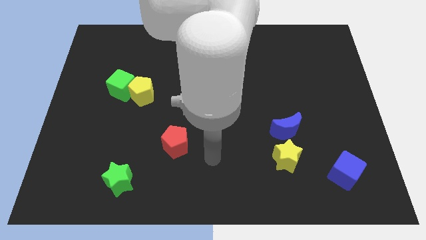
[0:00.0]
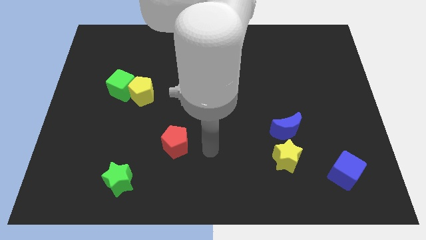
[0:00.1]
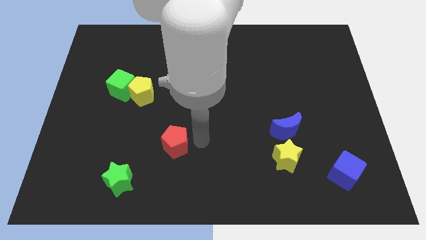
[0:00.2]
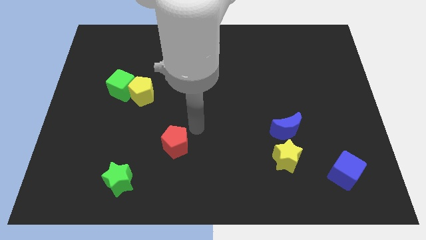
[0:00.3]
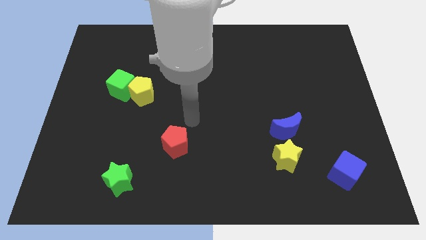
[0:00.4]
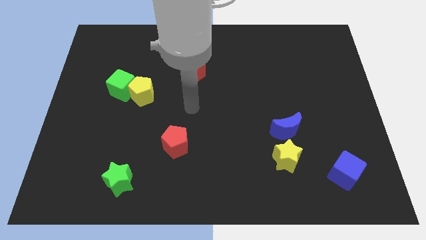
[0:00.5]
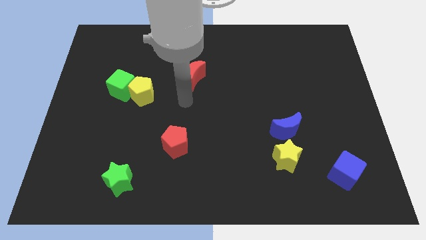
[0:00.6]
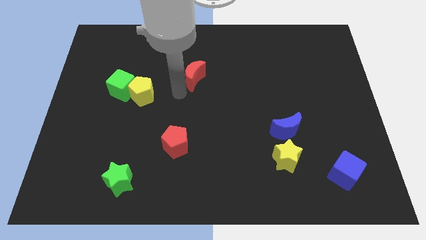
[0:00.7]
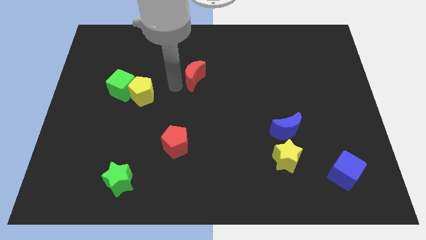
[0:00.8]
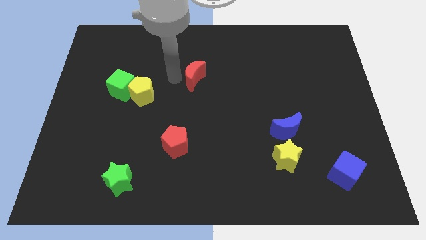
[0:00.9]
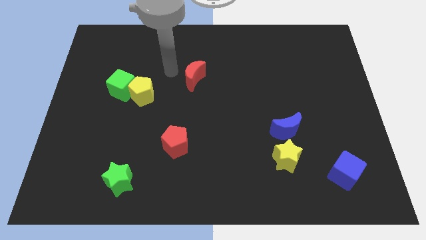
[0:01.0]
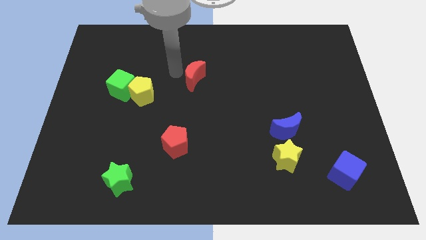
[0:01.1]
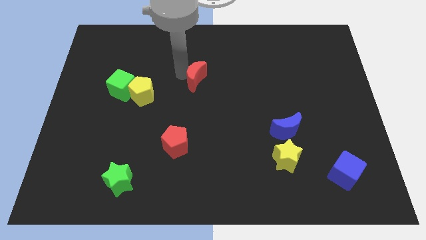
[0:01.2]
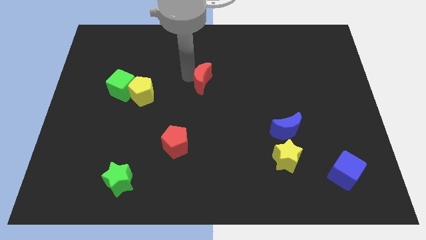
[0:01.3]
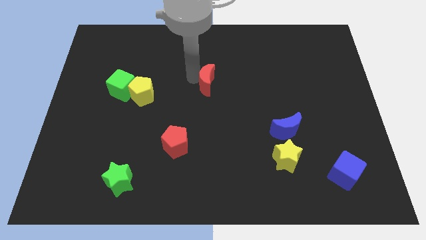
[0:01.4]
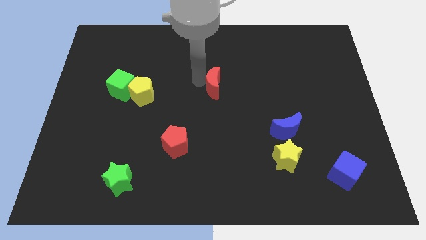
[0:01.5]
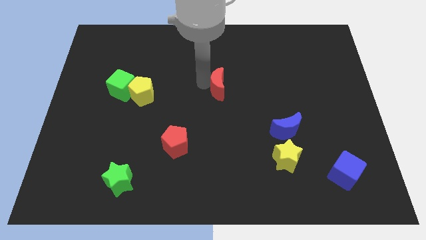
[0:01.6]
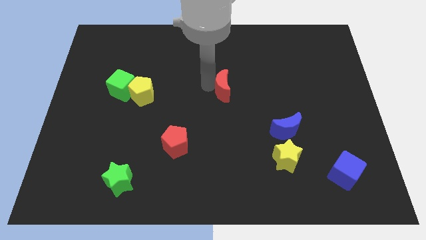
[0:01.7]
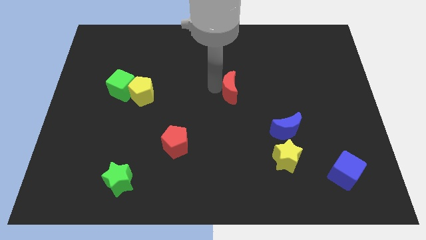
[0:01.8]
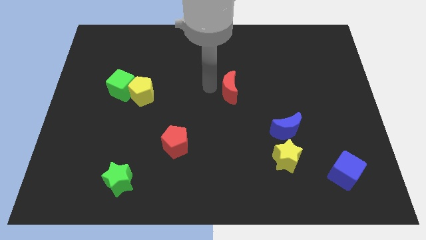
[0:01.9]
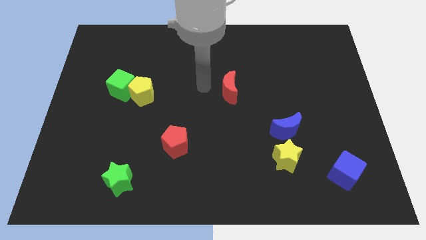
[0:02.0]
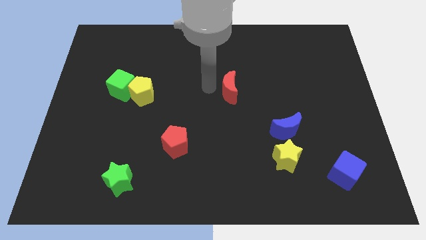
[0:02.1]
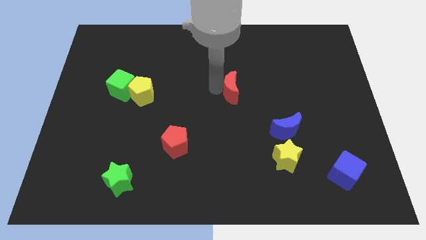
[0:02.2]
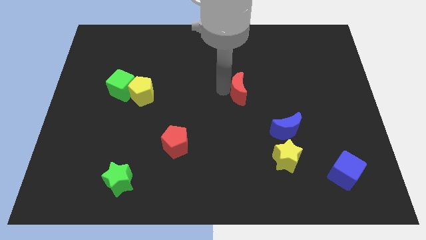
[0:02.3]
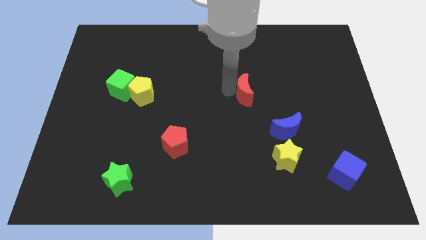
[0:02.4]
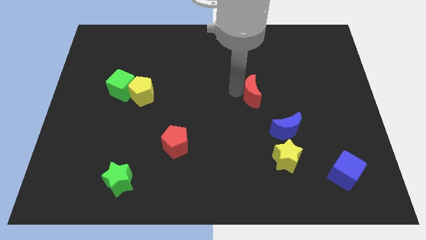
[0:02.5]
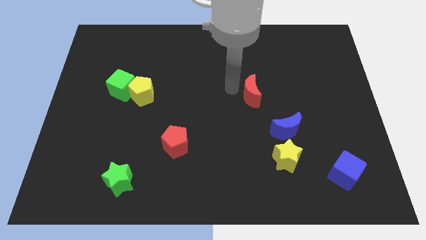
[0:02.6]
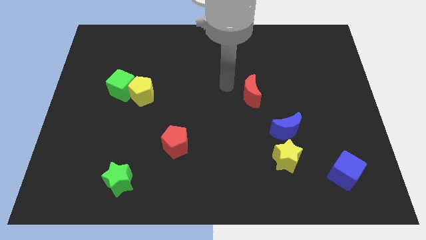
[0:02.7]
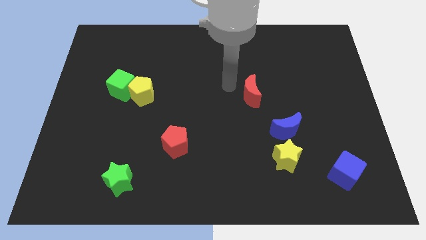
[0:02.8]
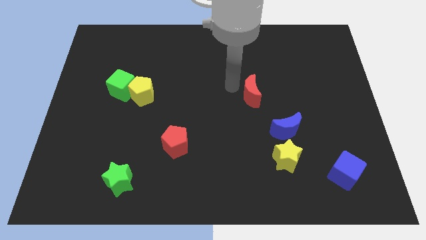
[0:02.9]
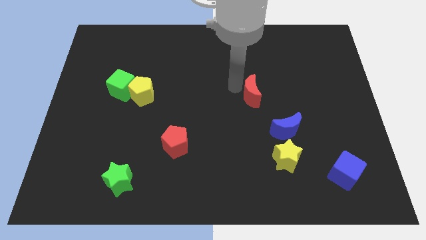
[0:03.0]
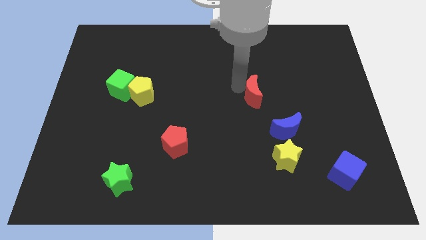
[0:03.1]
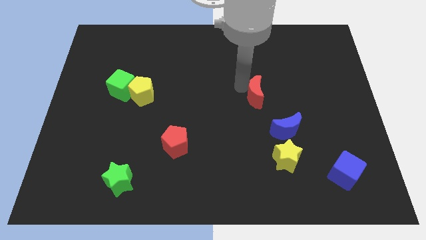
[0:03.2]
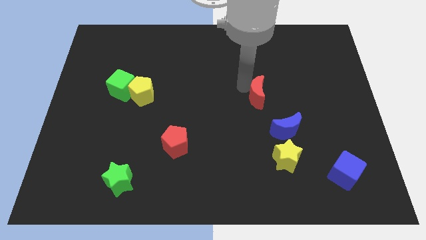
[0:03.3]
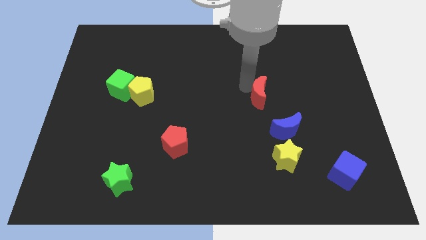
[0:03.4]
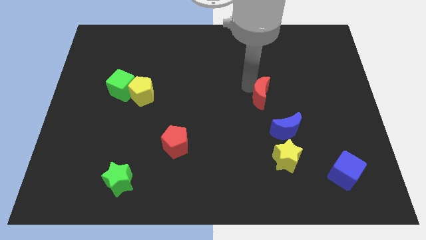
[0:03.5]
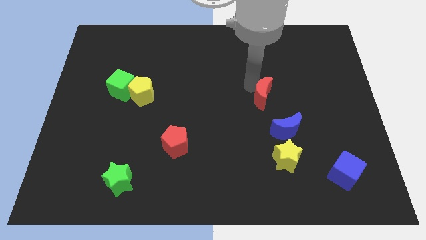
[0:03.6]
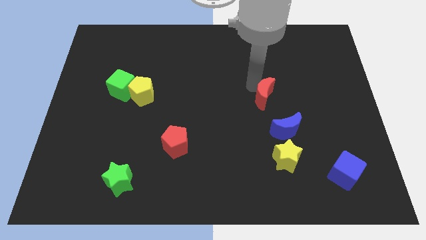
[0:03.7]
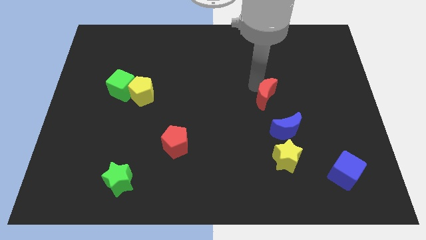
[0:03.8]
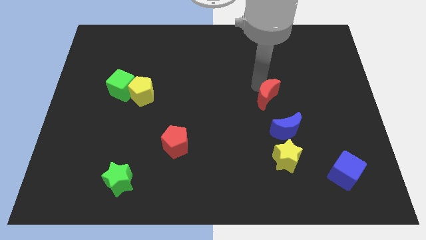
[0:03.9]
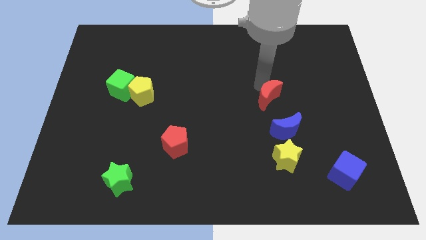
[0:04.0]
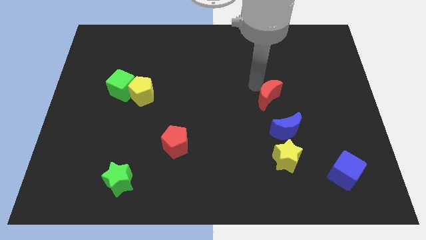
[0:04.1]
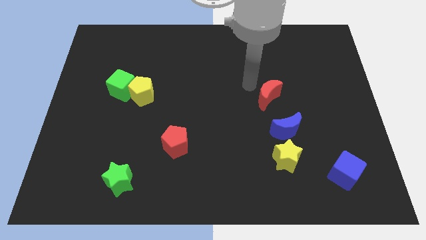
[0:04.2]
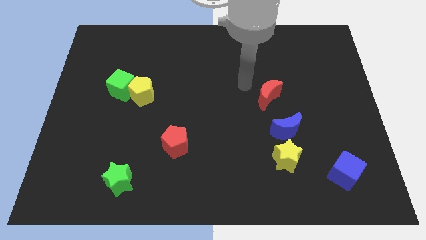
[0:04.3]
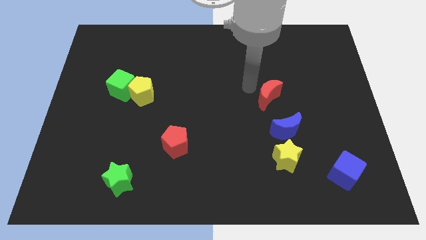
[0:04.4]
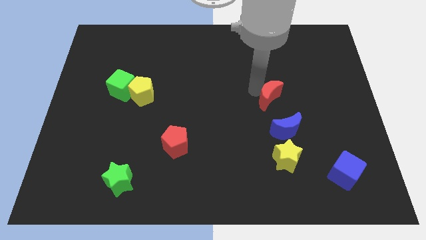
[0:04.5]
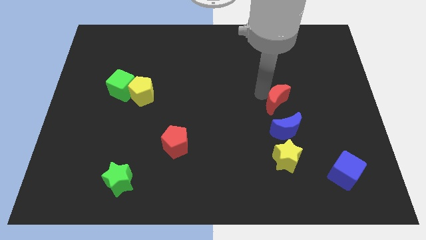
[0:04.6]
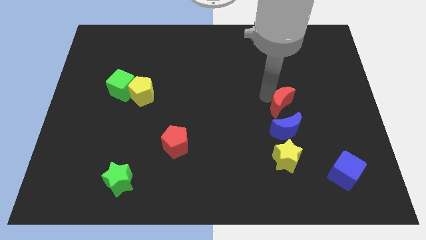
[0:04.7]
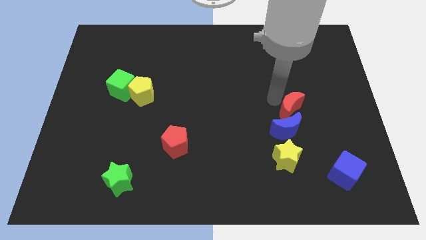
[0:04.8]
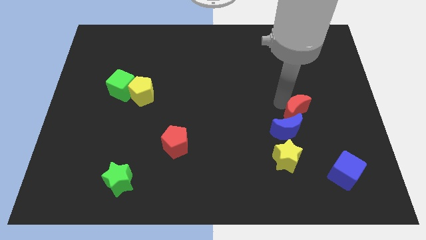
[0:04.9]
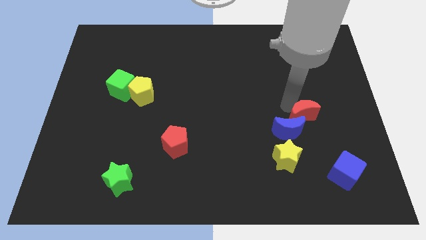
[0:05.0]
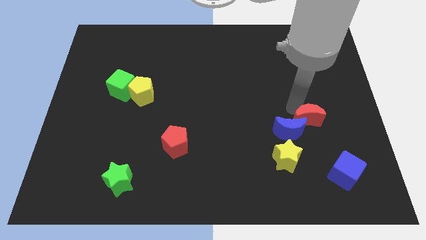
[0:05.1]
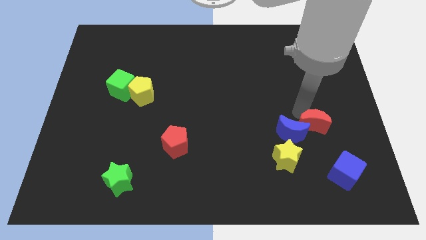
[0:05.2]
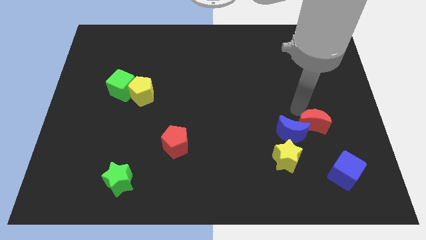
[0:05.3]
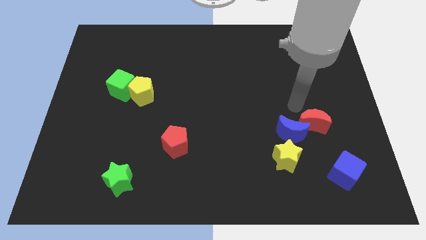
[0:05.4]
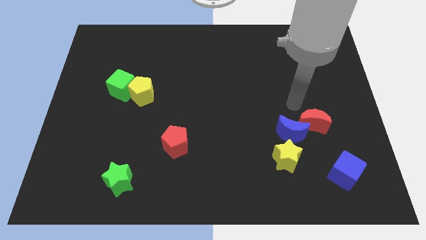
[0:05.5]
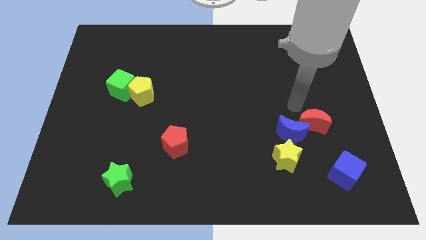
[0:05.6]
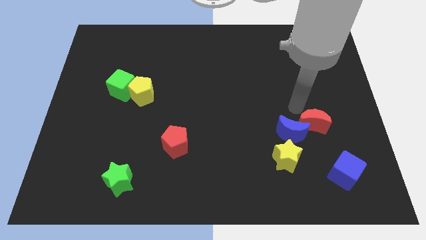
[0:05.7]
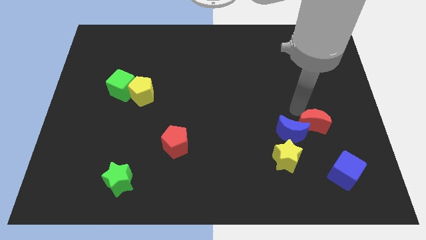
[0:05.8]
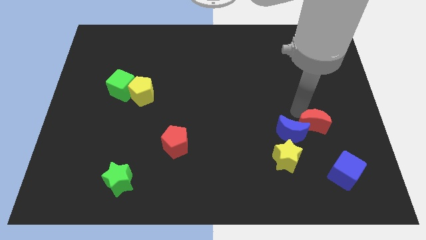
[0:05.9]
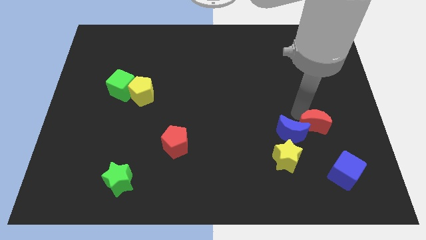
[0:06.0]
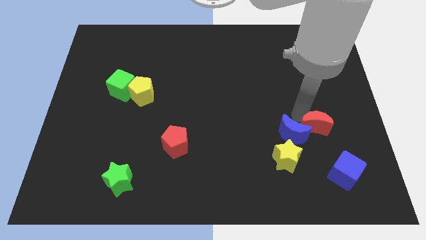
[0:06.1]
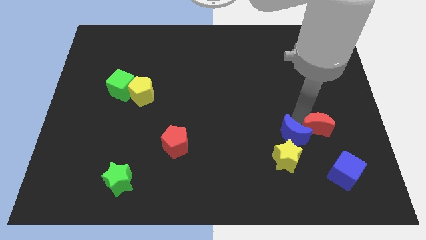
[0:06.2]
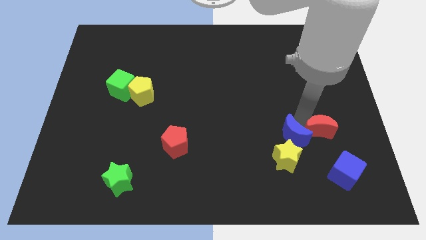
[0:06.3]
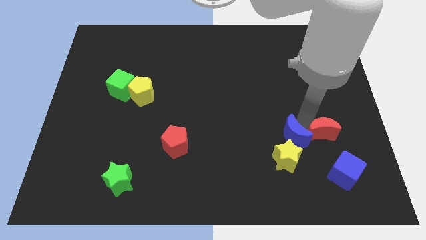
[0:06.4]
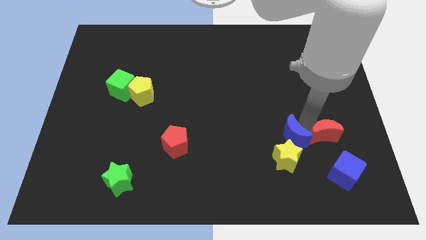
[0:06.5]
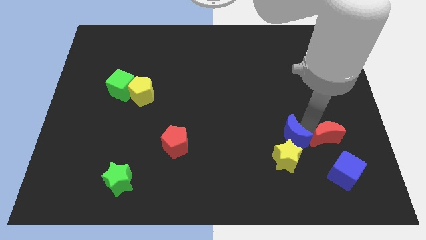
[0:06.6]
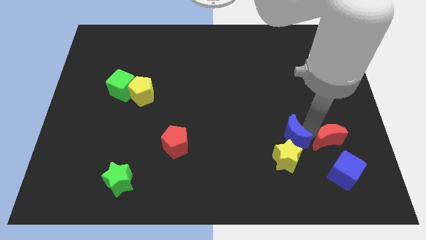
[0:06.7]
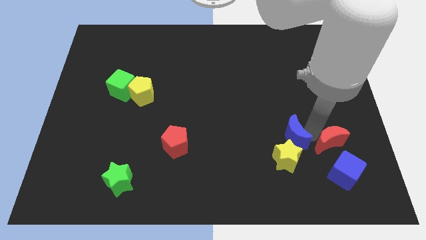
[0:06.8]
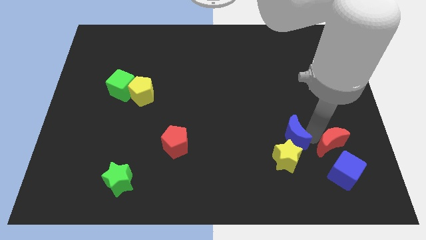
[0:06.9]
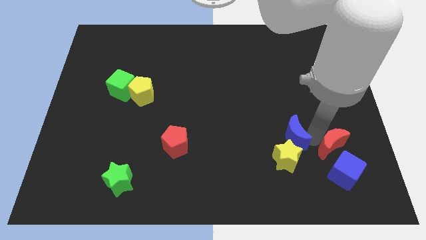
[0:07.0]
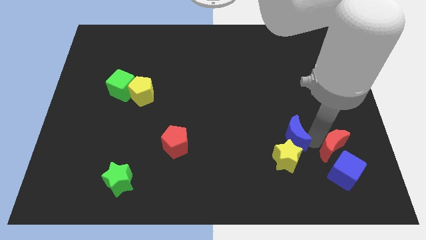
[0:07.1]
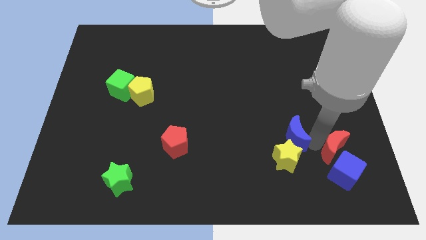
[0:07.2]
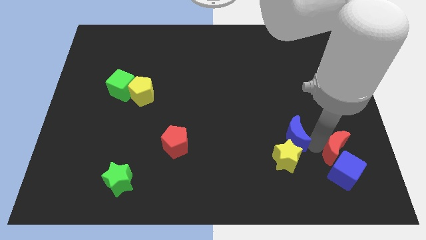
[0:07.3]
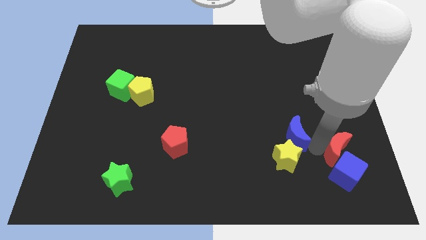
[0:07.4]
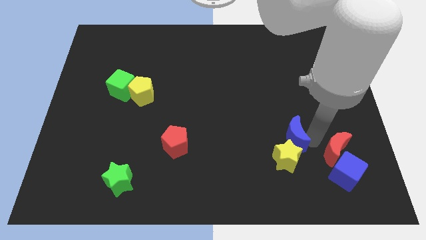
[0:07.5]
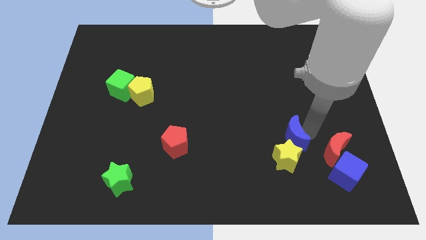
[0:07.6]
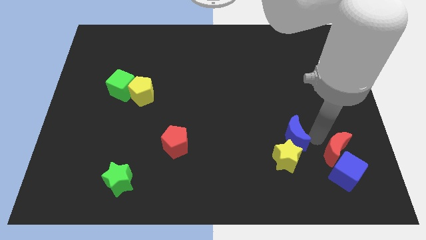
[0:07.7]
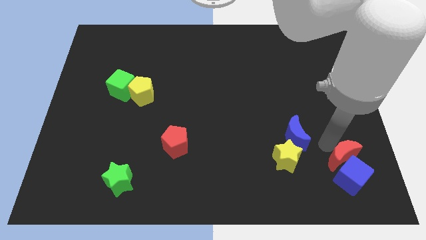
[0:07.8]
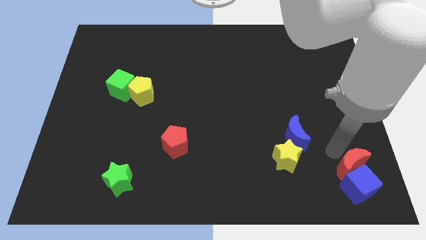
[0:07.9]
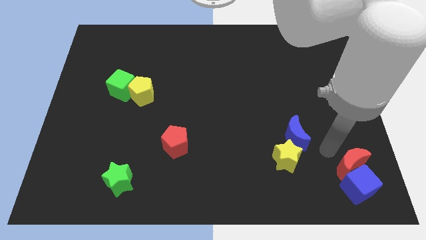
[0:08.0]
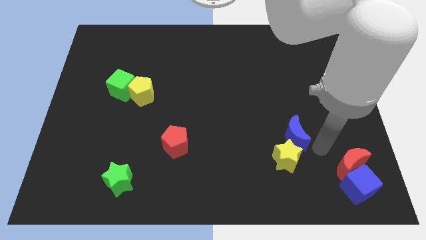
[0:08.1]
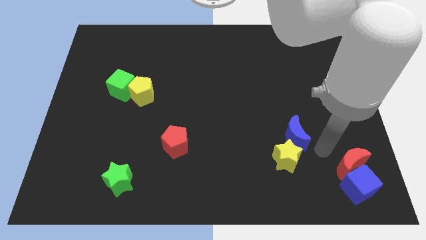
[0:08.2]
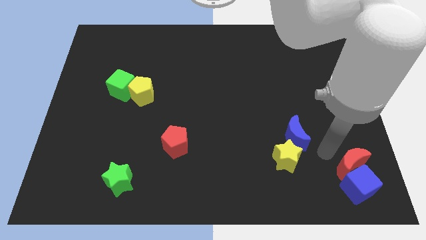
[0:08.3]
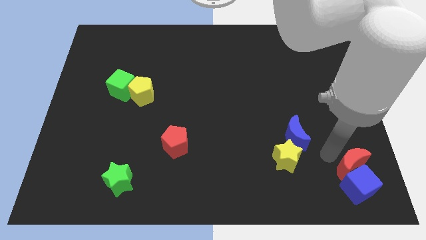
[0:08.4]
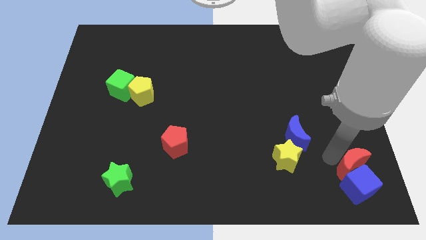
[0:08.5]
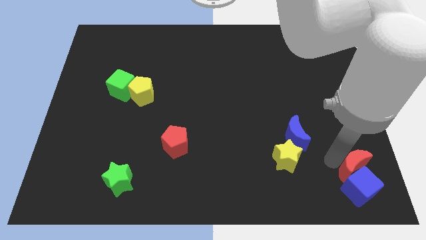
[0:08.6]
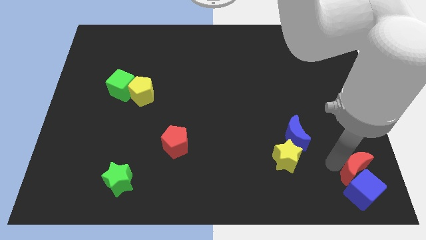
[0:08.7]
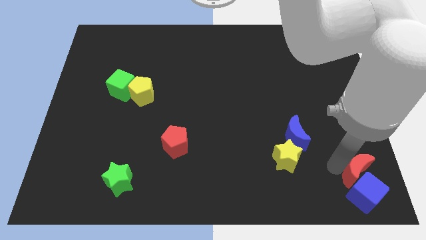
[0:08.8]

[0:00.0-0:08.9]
put the red moon to the bottom right
